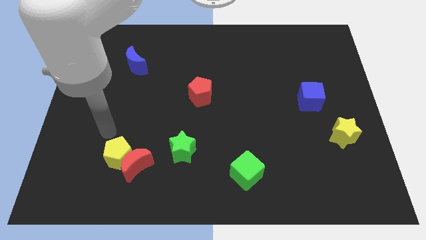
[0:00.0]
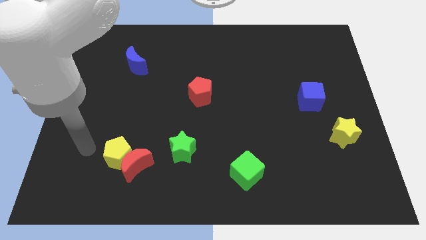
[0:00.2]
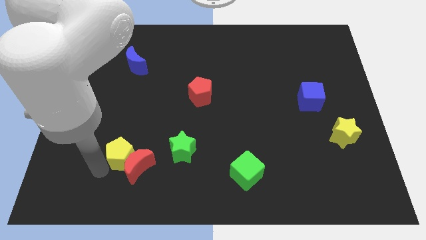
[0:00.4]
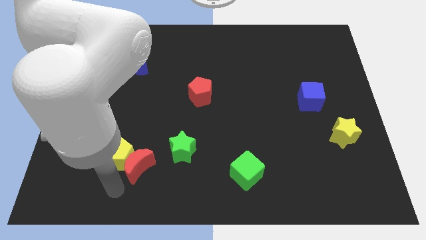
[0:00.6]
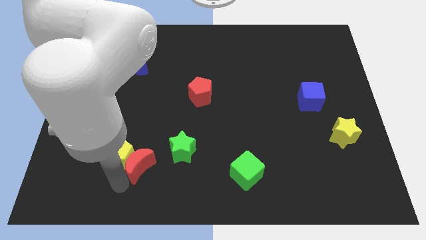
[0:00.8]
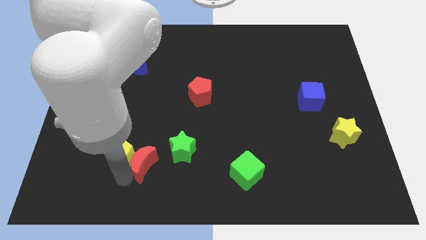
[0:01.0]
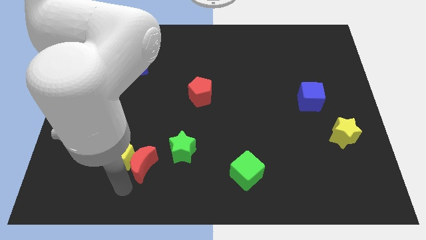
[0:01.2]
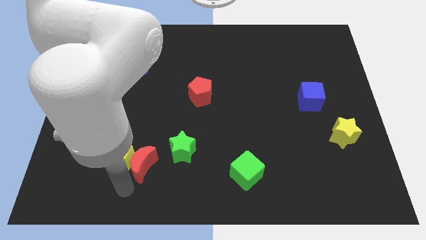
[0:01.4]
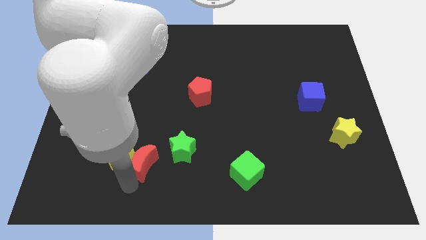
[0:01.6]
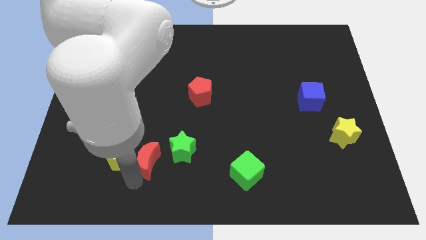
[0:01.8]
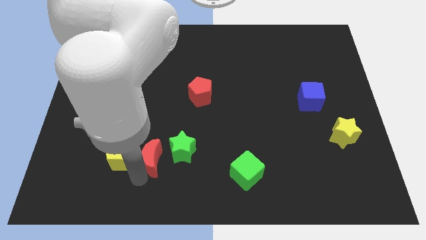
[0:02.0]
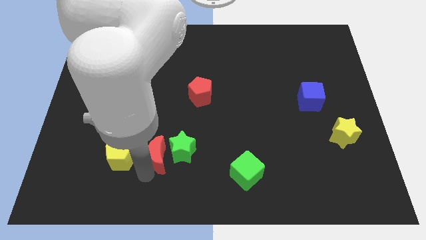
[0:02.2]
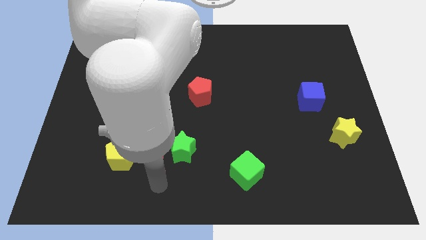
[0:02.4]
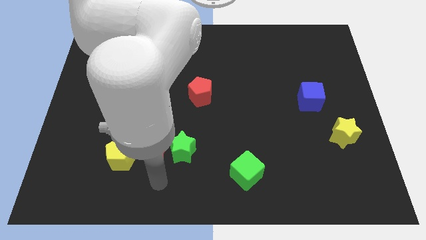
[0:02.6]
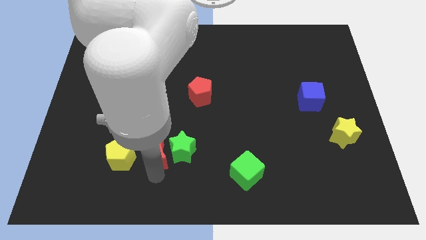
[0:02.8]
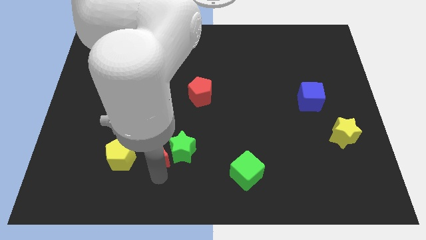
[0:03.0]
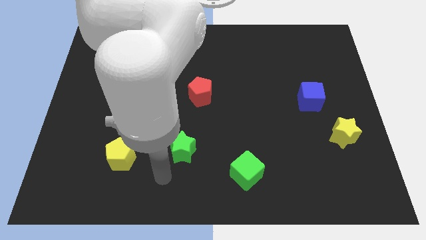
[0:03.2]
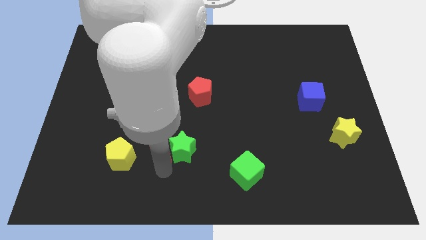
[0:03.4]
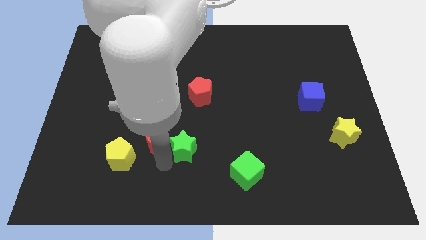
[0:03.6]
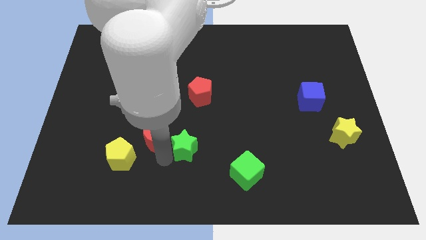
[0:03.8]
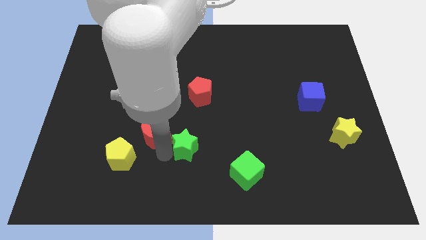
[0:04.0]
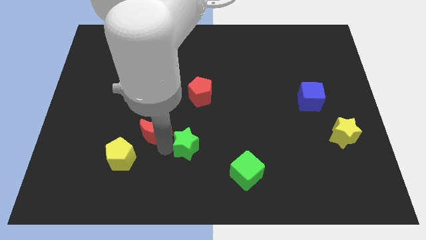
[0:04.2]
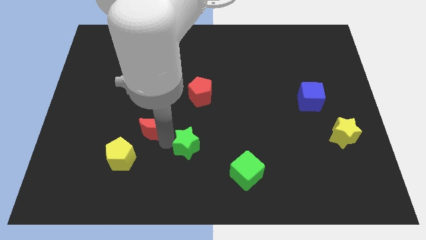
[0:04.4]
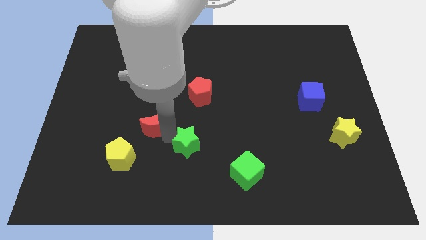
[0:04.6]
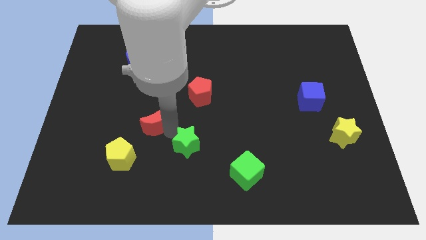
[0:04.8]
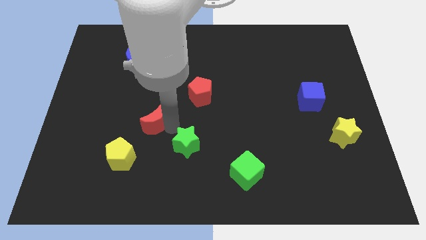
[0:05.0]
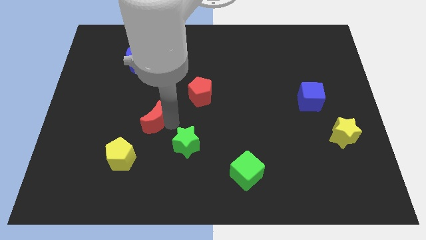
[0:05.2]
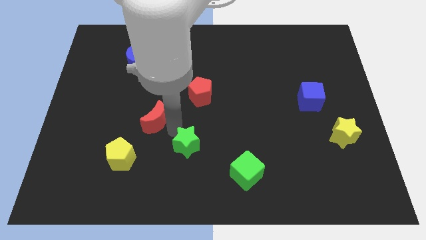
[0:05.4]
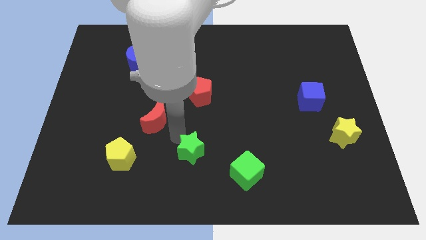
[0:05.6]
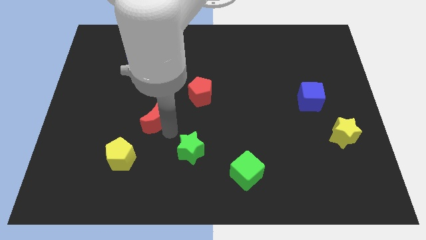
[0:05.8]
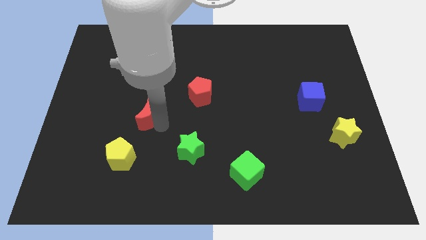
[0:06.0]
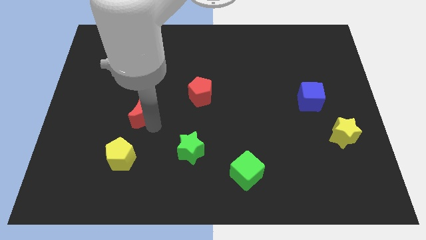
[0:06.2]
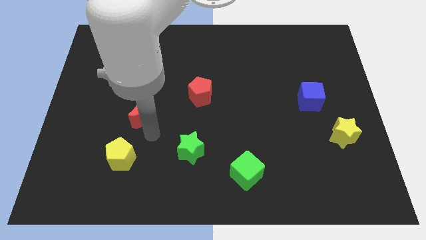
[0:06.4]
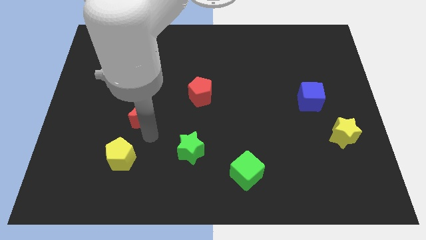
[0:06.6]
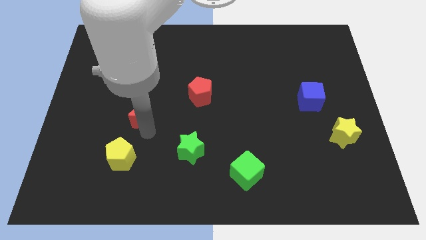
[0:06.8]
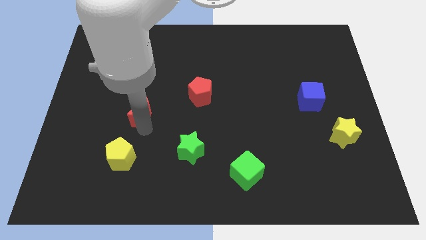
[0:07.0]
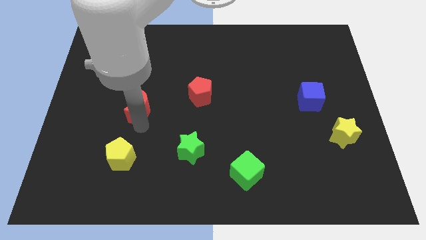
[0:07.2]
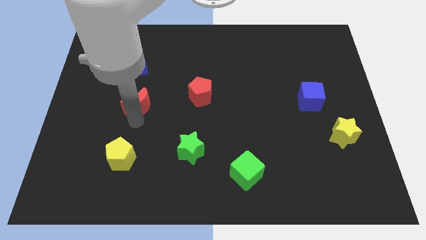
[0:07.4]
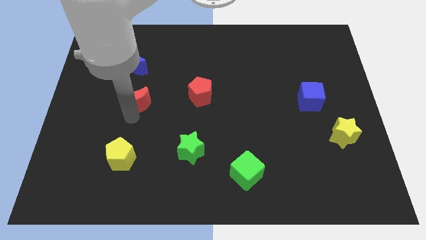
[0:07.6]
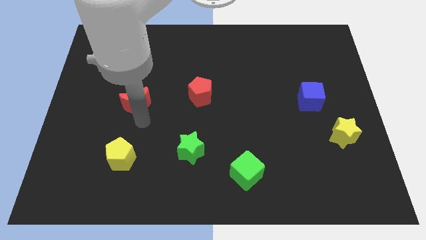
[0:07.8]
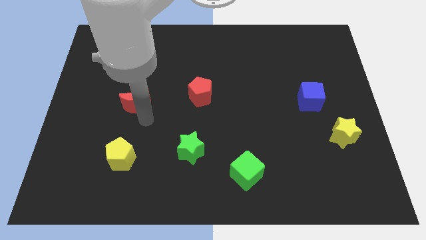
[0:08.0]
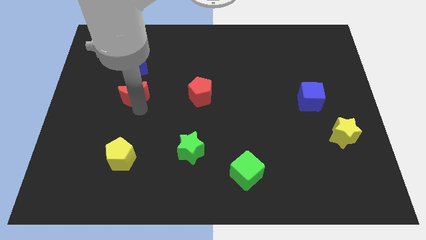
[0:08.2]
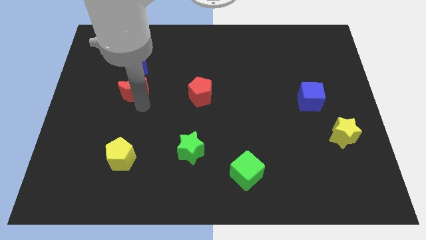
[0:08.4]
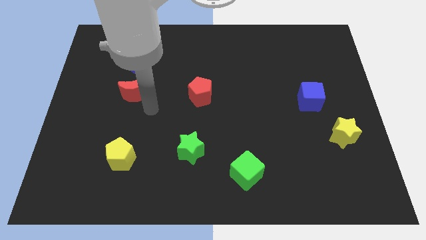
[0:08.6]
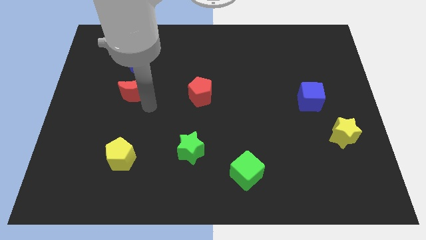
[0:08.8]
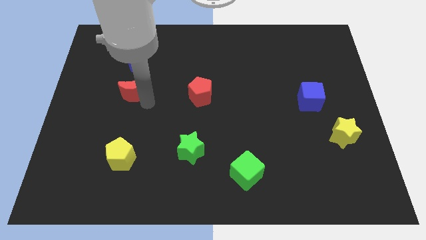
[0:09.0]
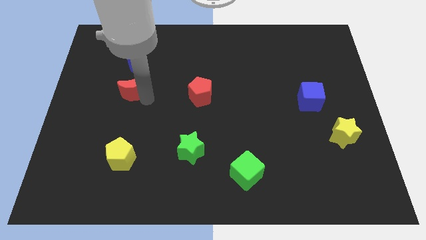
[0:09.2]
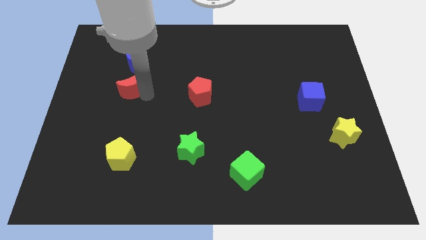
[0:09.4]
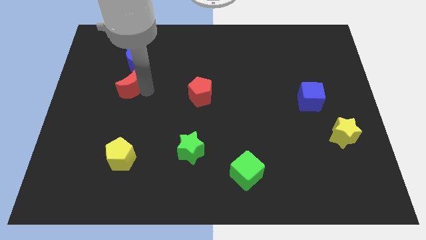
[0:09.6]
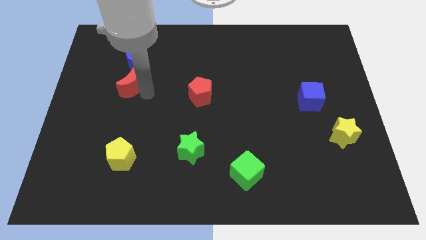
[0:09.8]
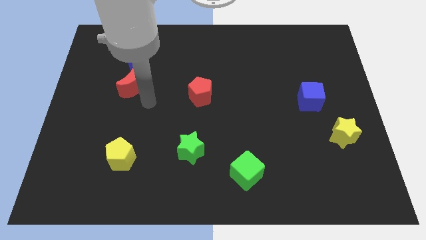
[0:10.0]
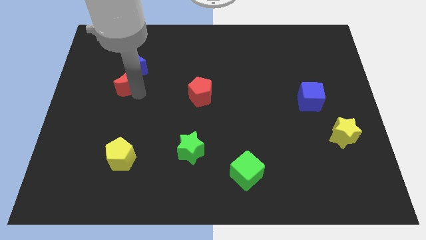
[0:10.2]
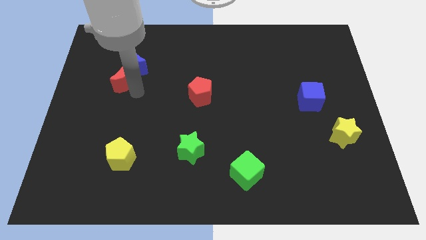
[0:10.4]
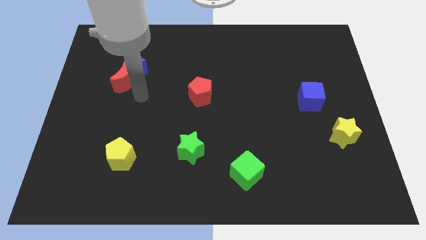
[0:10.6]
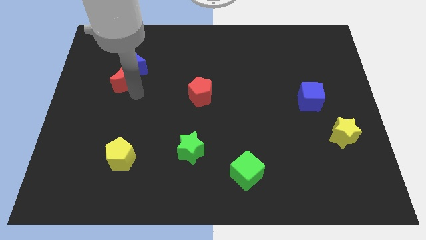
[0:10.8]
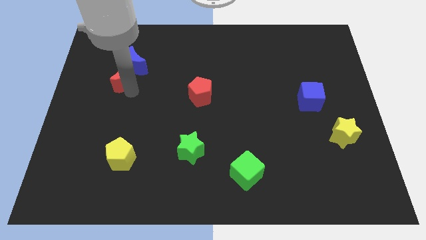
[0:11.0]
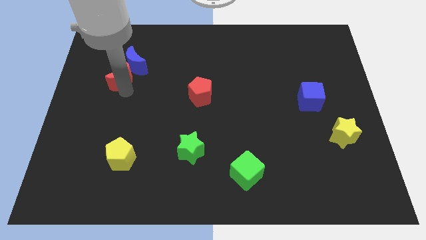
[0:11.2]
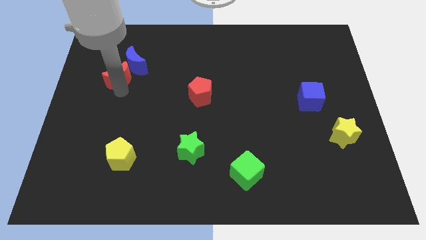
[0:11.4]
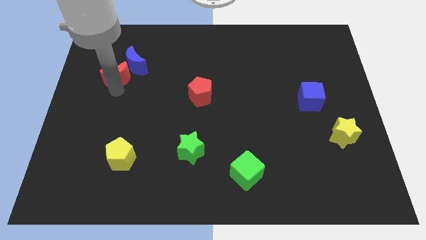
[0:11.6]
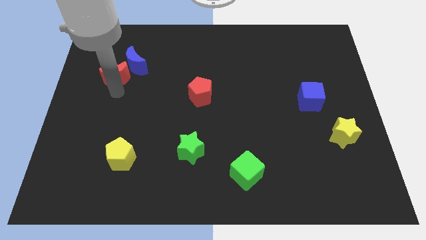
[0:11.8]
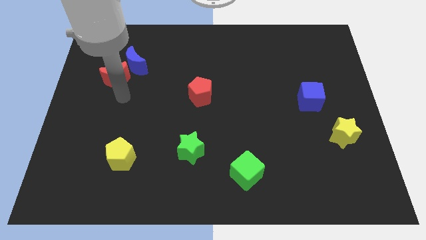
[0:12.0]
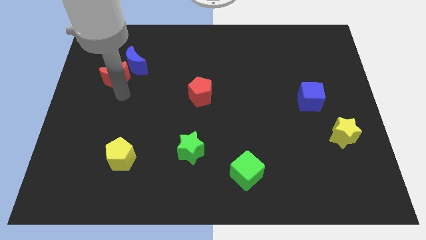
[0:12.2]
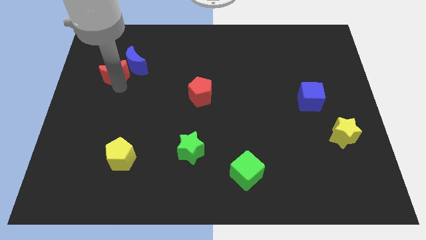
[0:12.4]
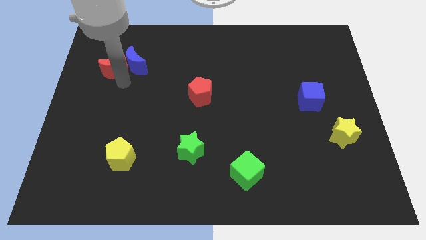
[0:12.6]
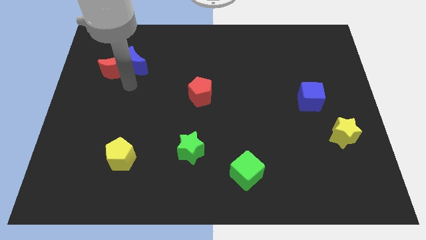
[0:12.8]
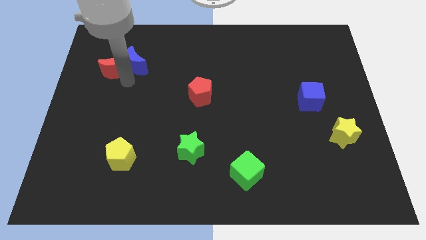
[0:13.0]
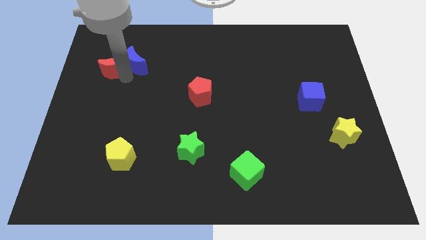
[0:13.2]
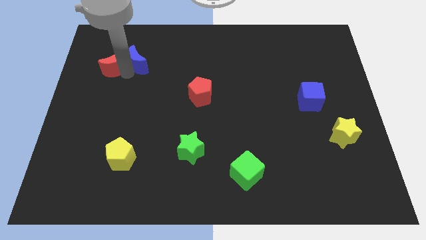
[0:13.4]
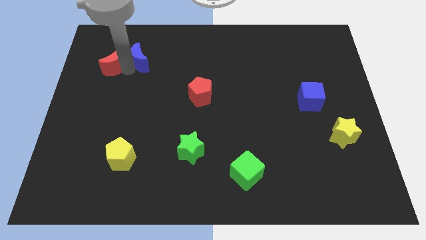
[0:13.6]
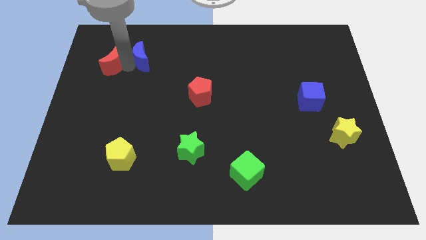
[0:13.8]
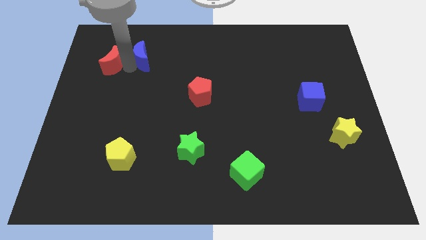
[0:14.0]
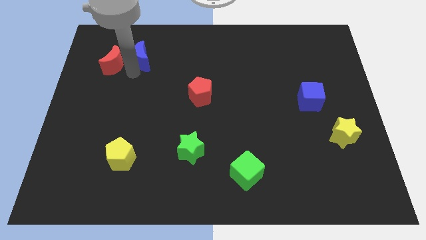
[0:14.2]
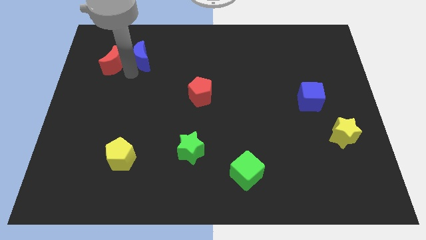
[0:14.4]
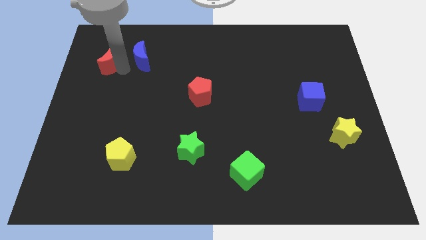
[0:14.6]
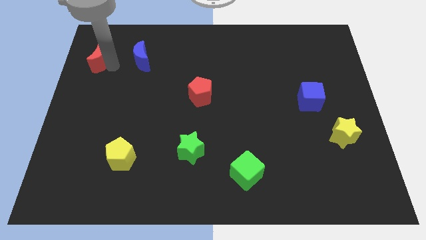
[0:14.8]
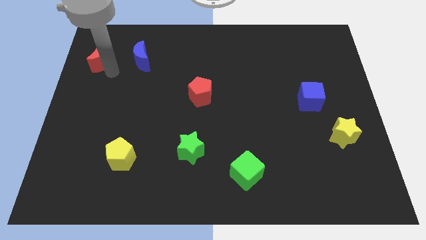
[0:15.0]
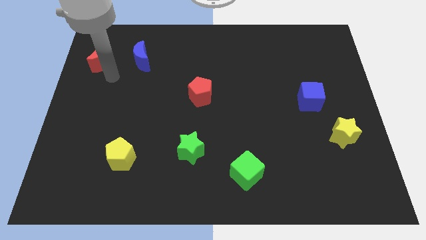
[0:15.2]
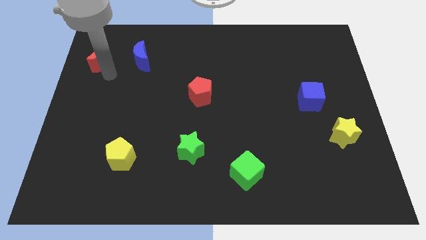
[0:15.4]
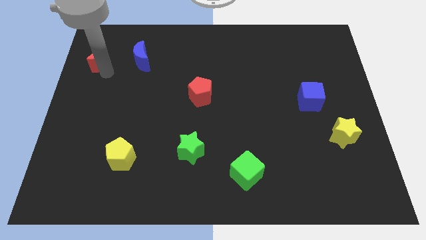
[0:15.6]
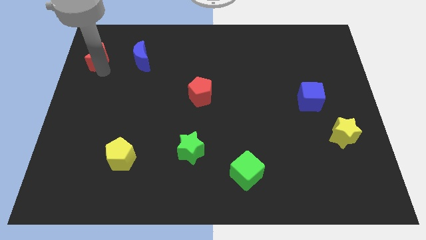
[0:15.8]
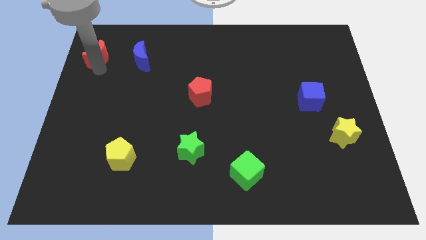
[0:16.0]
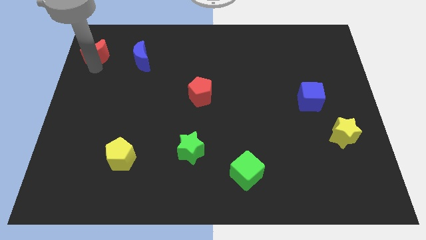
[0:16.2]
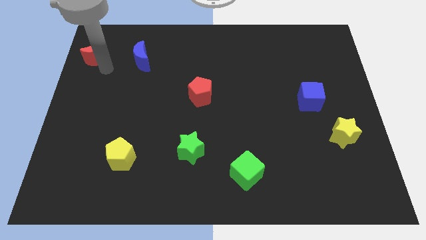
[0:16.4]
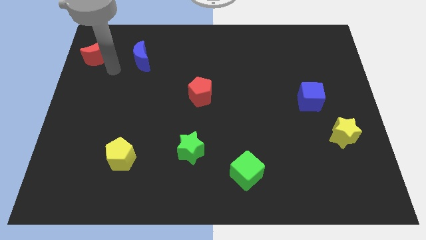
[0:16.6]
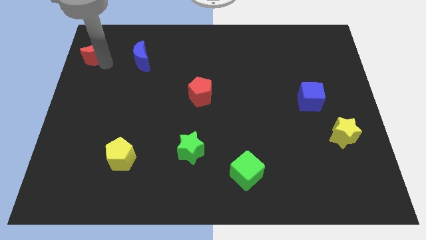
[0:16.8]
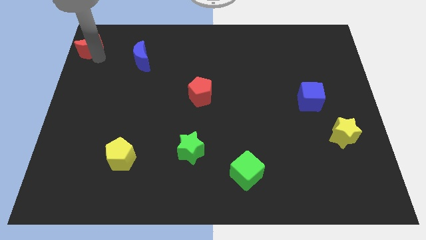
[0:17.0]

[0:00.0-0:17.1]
push the red moon to the top left
